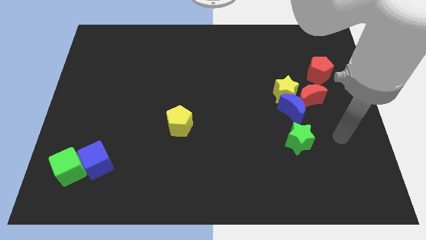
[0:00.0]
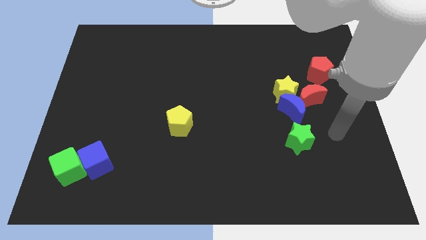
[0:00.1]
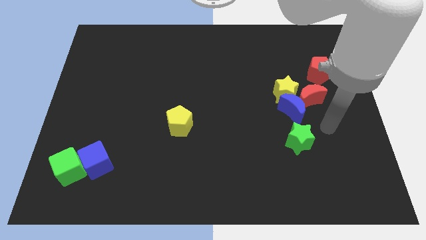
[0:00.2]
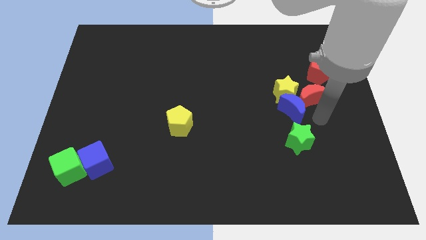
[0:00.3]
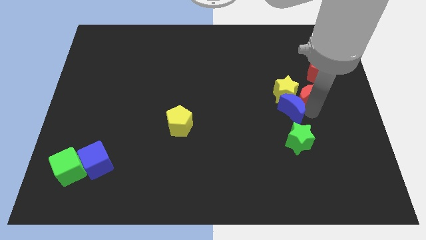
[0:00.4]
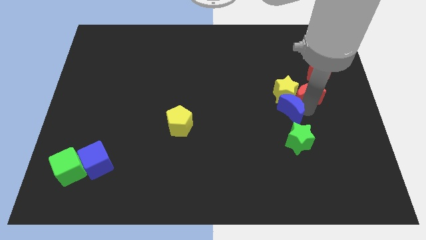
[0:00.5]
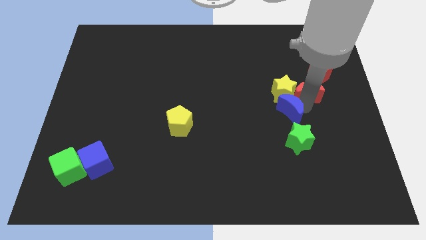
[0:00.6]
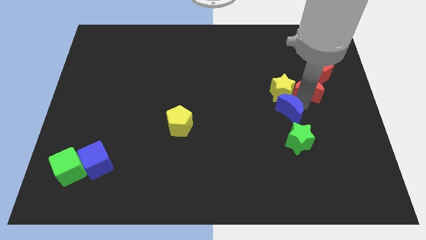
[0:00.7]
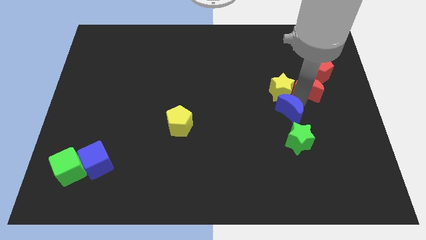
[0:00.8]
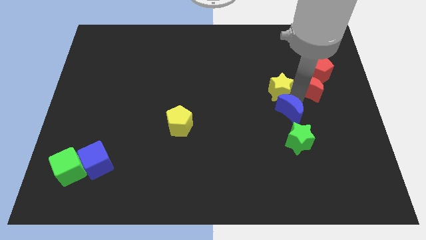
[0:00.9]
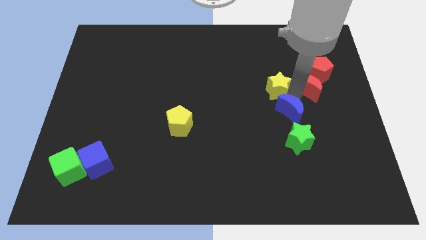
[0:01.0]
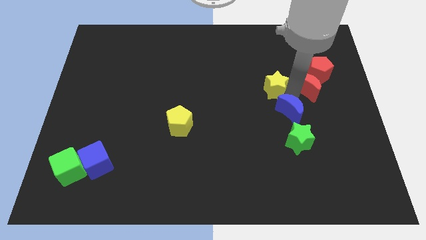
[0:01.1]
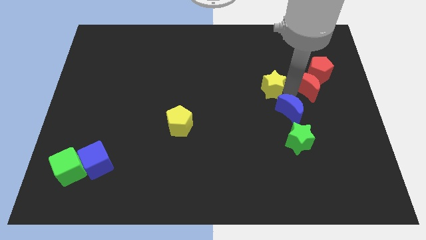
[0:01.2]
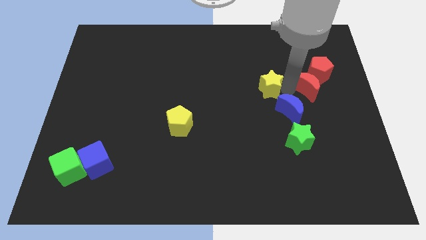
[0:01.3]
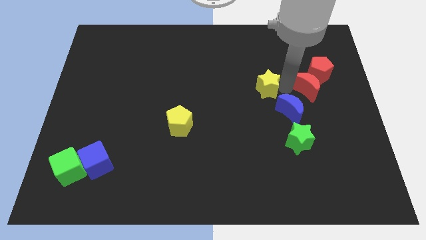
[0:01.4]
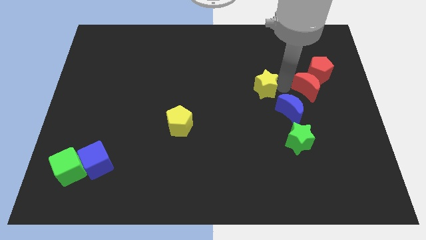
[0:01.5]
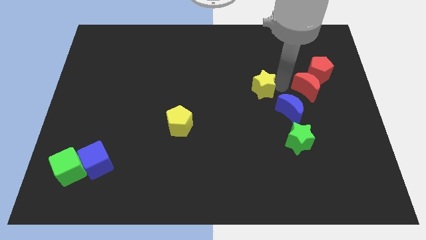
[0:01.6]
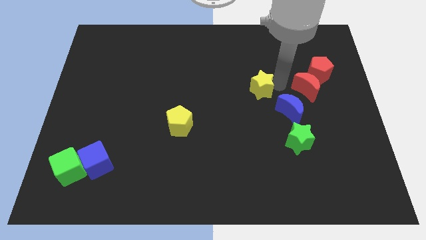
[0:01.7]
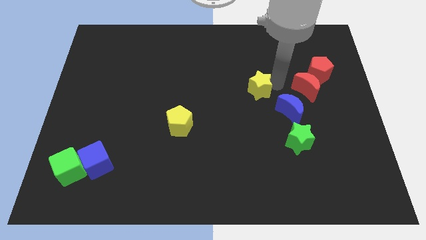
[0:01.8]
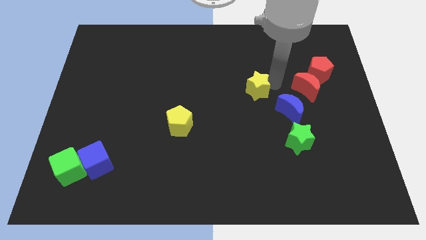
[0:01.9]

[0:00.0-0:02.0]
pull the yellow star apart from the blue moon and red moon

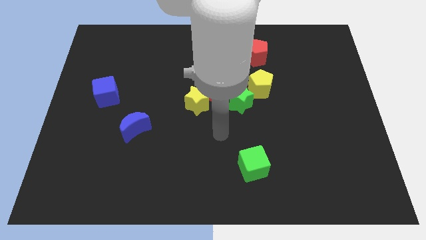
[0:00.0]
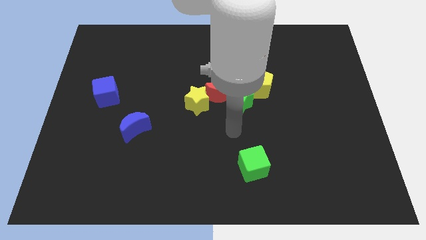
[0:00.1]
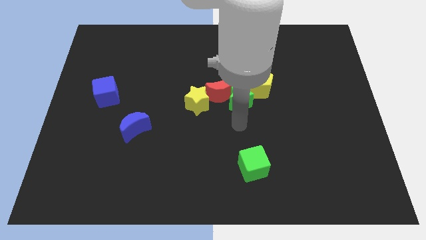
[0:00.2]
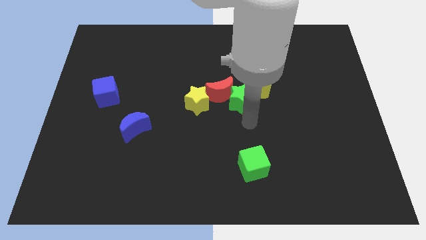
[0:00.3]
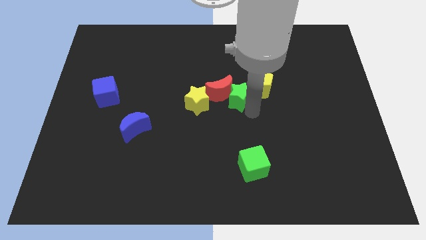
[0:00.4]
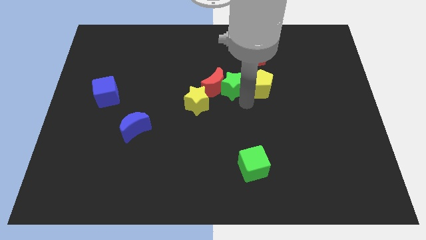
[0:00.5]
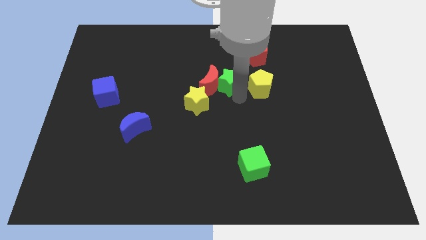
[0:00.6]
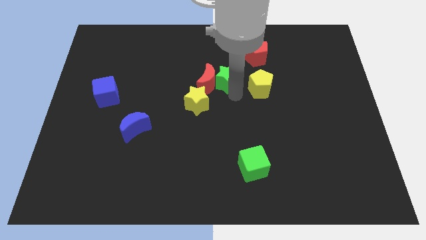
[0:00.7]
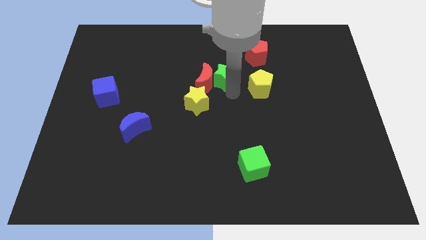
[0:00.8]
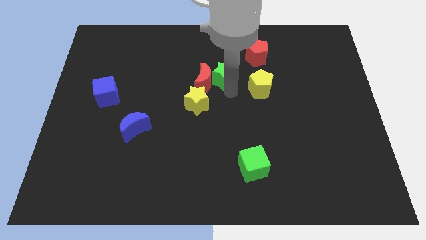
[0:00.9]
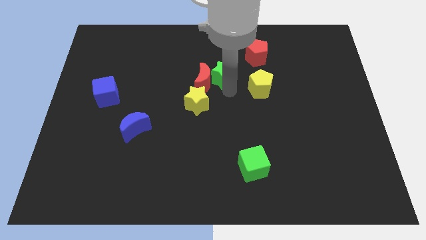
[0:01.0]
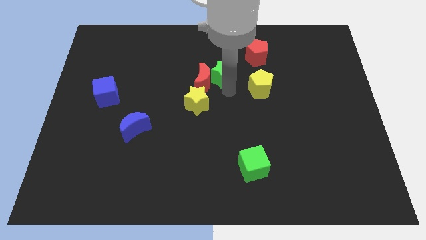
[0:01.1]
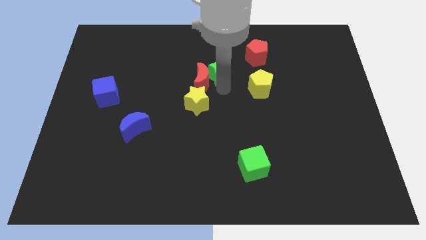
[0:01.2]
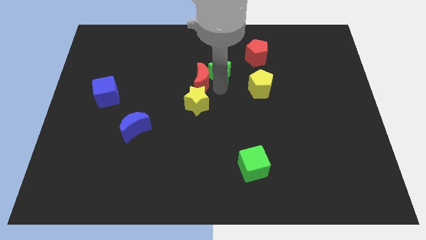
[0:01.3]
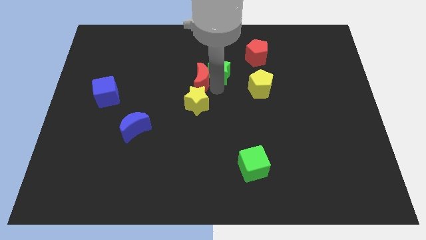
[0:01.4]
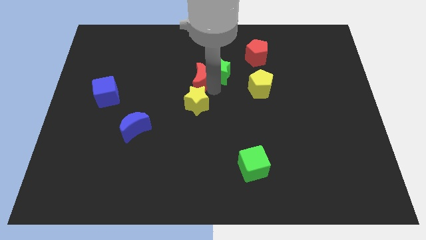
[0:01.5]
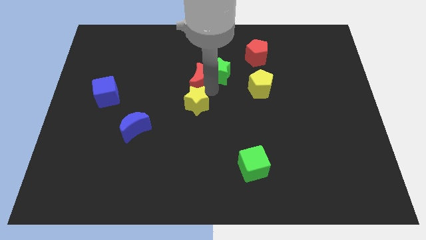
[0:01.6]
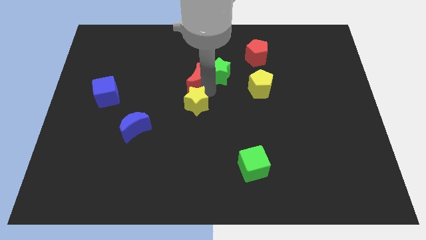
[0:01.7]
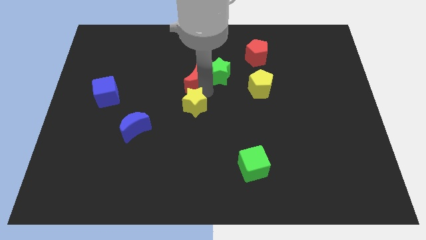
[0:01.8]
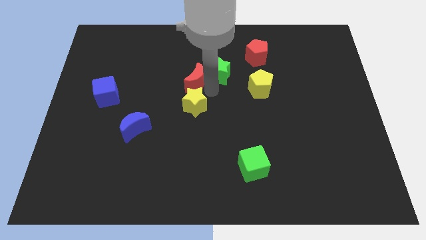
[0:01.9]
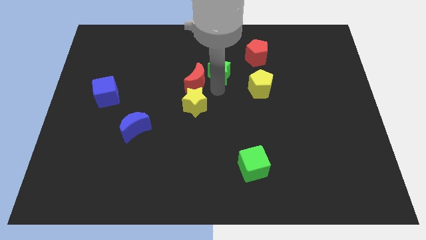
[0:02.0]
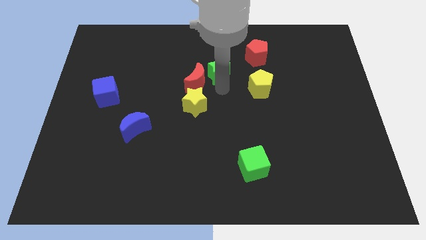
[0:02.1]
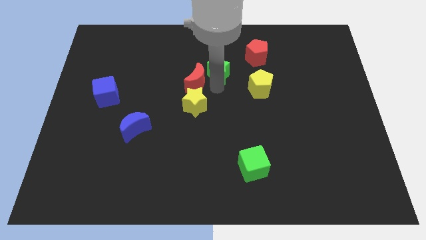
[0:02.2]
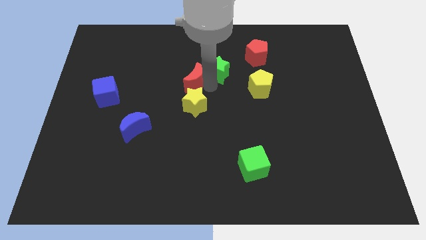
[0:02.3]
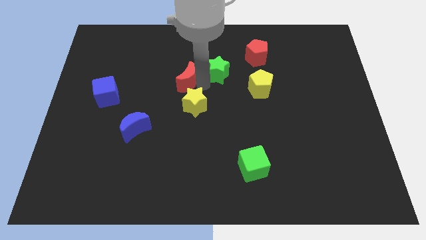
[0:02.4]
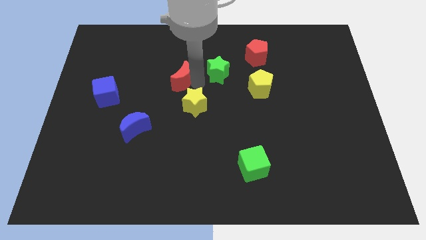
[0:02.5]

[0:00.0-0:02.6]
separate the red moon from the green star, yellow star, and yellow pentagon

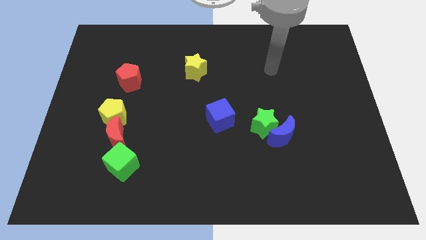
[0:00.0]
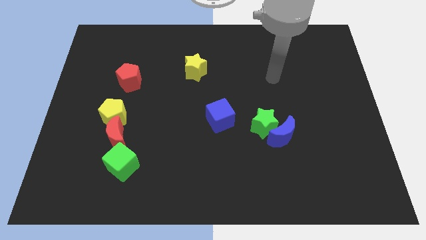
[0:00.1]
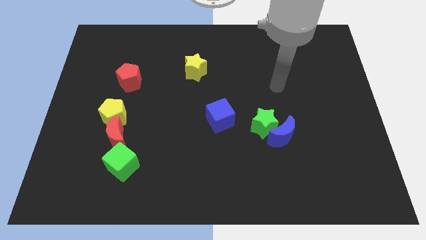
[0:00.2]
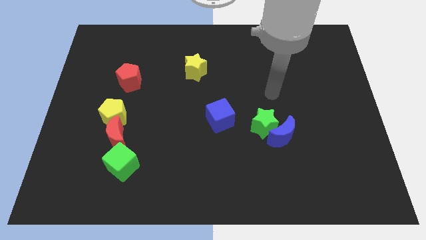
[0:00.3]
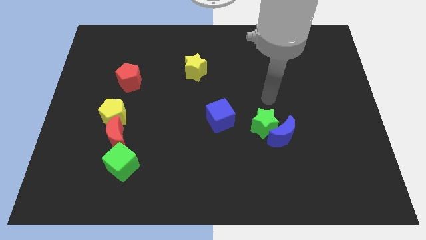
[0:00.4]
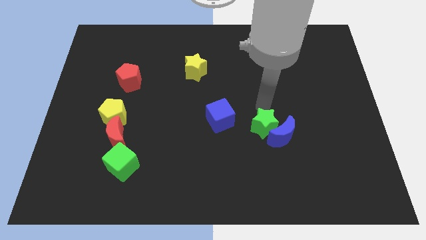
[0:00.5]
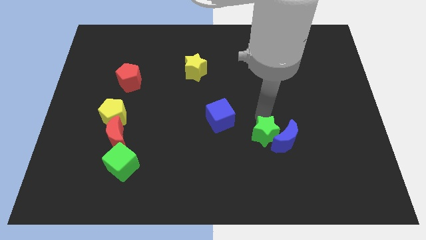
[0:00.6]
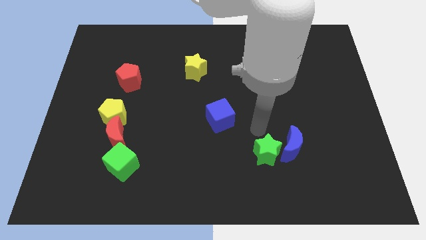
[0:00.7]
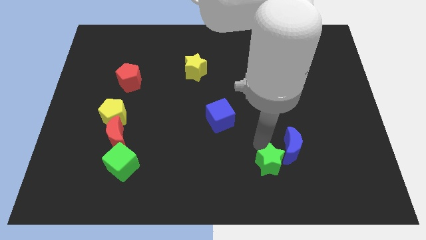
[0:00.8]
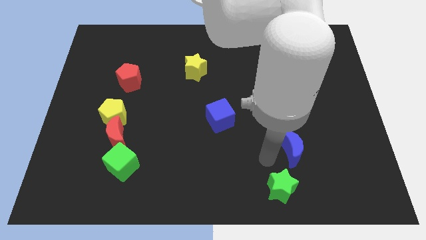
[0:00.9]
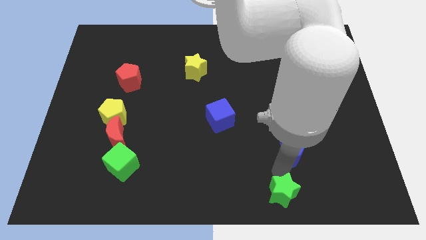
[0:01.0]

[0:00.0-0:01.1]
separate the blue moon from the green star

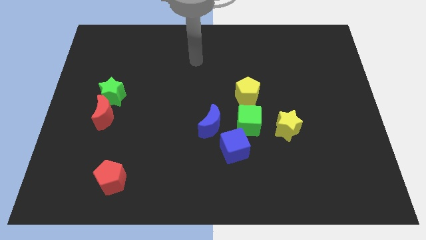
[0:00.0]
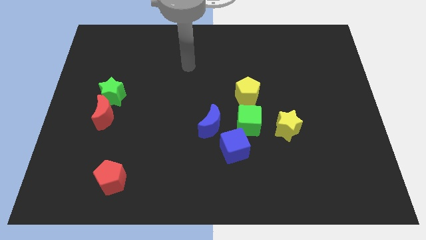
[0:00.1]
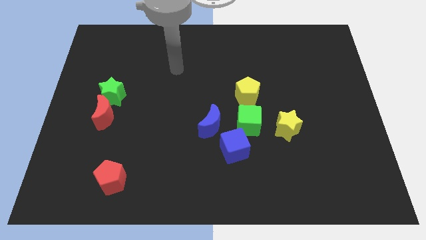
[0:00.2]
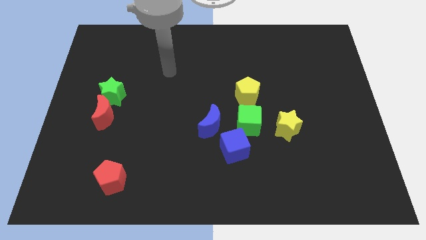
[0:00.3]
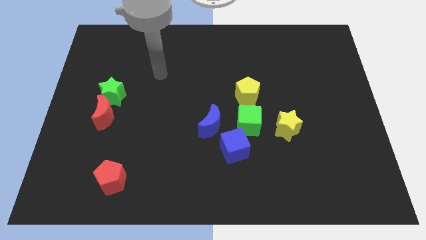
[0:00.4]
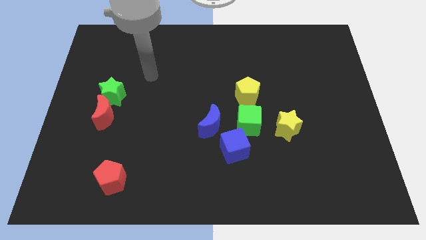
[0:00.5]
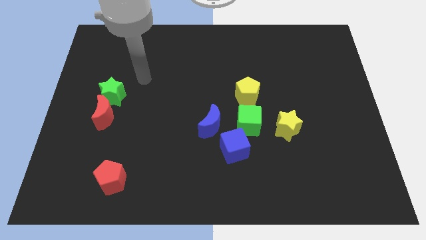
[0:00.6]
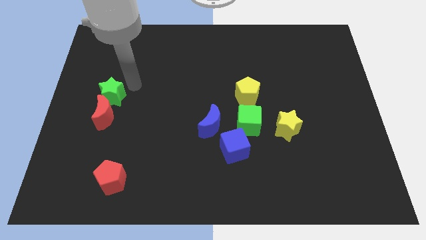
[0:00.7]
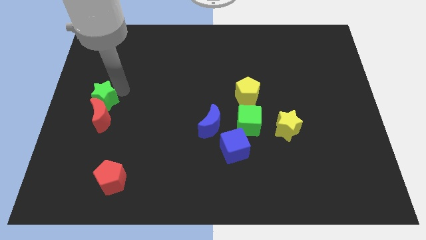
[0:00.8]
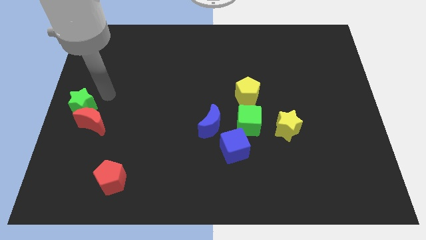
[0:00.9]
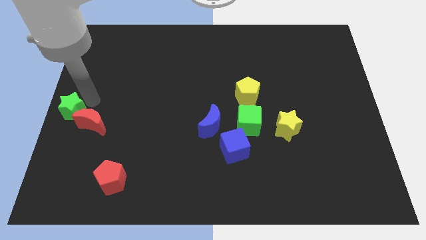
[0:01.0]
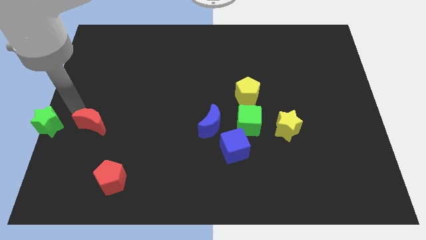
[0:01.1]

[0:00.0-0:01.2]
separate the red moon from the green star

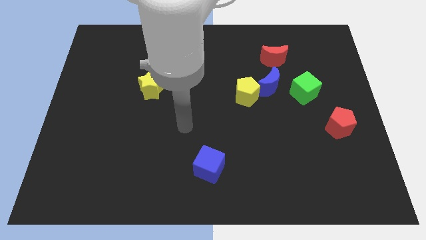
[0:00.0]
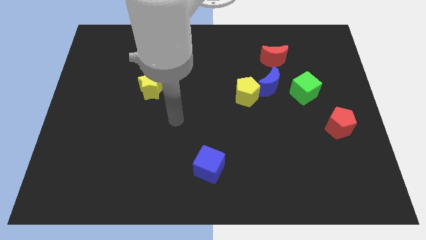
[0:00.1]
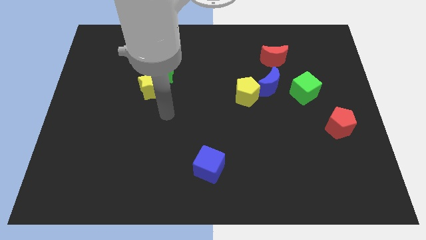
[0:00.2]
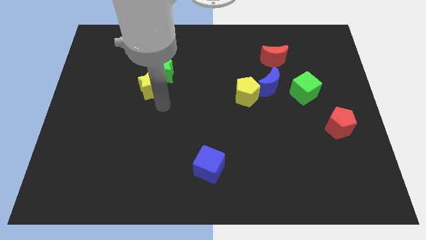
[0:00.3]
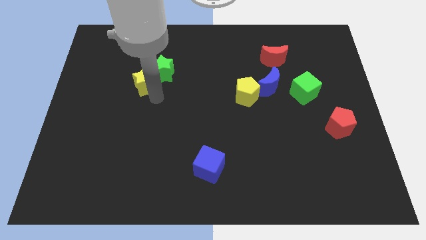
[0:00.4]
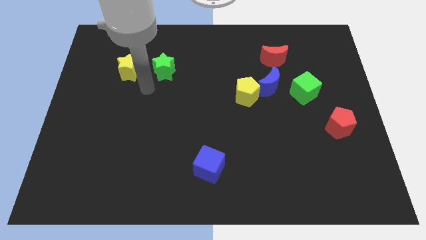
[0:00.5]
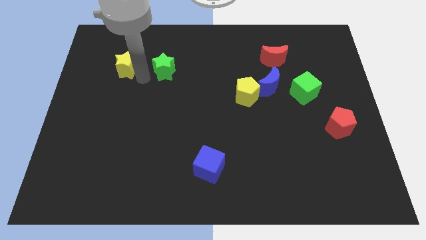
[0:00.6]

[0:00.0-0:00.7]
move the green star away from the yellow star

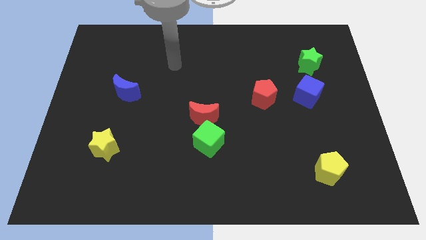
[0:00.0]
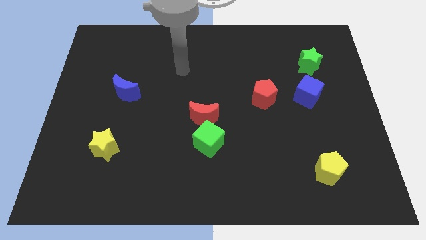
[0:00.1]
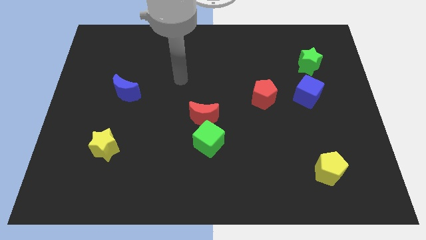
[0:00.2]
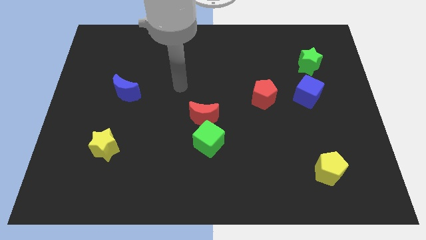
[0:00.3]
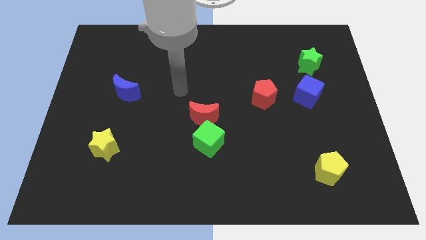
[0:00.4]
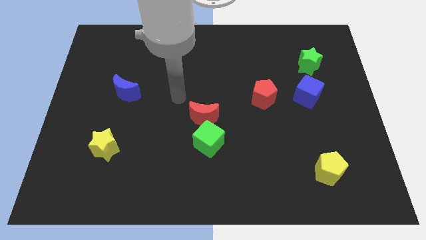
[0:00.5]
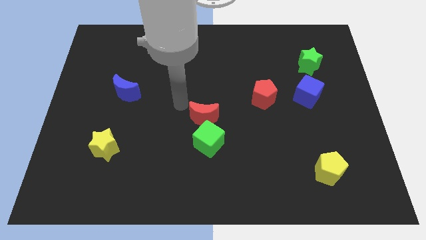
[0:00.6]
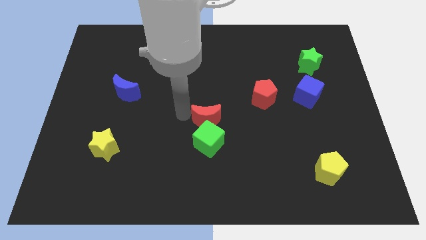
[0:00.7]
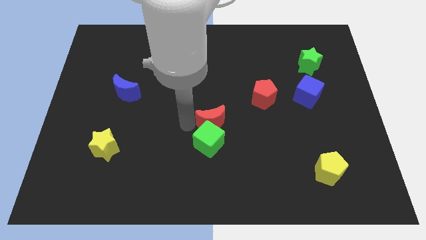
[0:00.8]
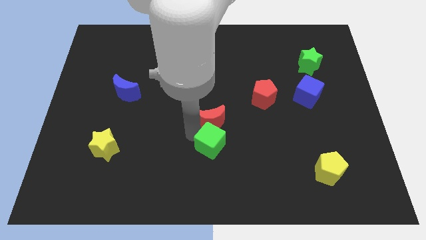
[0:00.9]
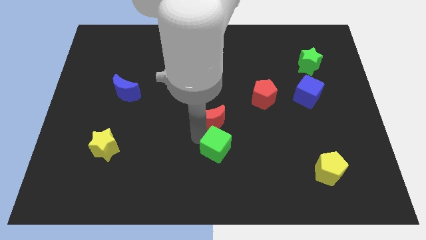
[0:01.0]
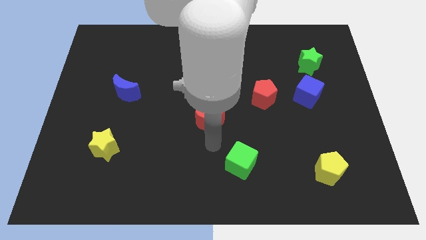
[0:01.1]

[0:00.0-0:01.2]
pull the red moon apart from the green cube

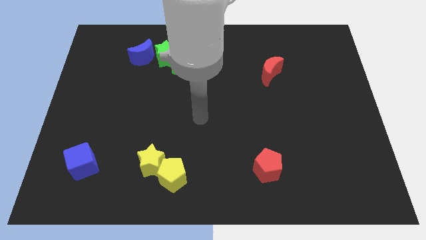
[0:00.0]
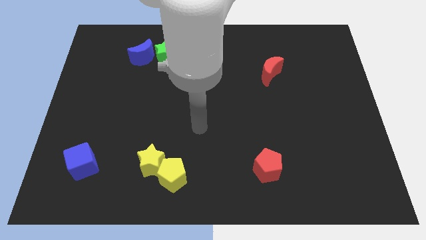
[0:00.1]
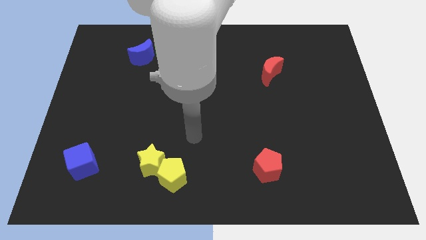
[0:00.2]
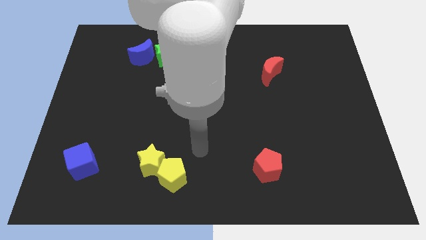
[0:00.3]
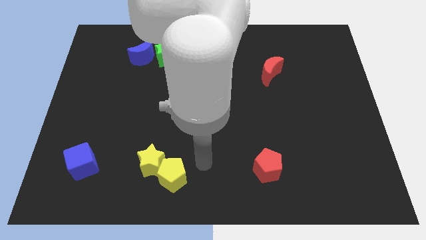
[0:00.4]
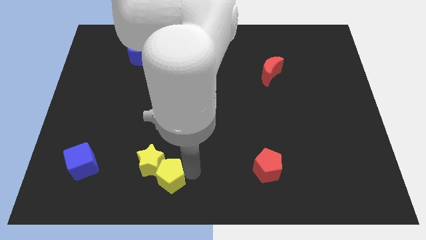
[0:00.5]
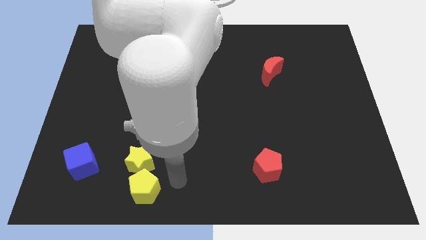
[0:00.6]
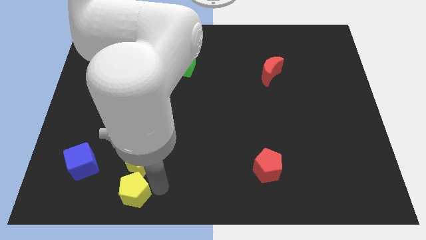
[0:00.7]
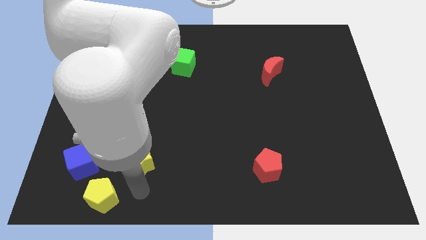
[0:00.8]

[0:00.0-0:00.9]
pull the yellow star apart from the yellow pentagon
